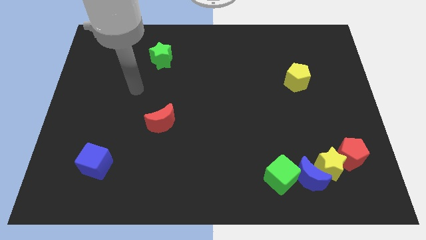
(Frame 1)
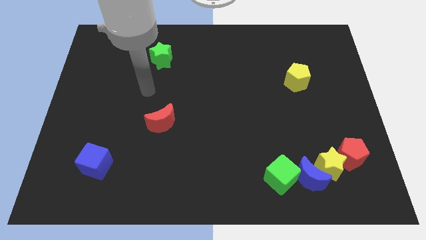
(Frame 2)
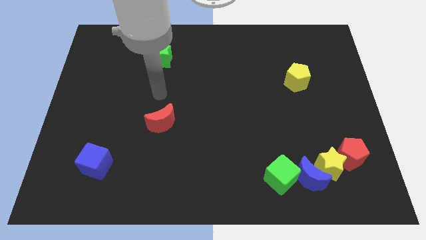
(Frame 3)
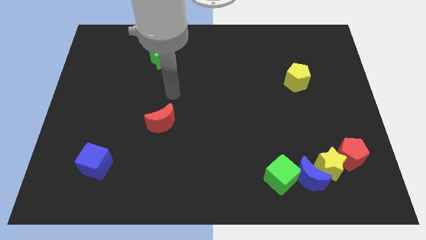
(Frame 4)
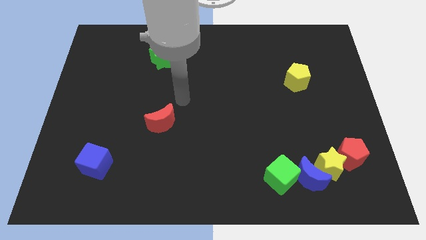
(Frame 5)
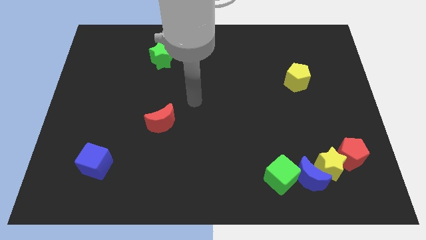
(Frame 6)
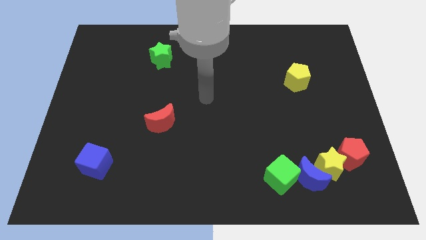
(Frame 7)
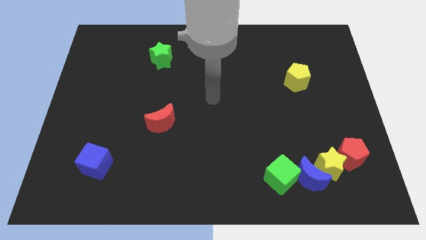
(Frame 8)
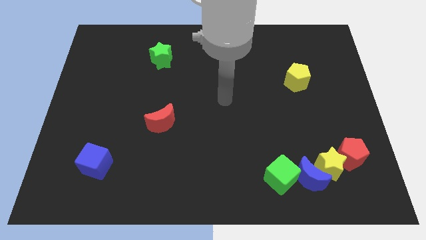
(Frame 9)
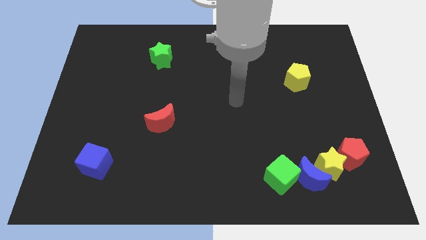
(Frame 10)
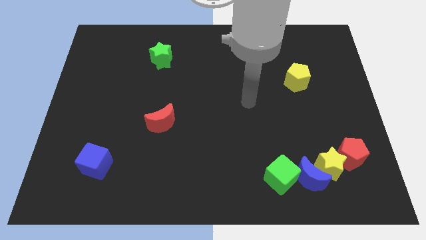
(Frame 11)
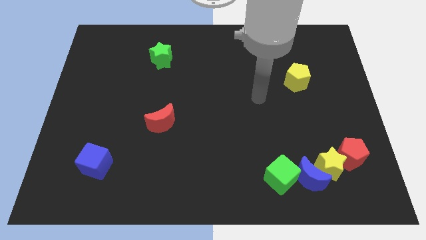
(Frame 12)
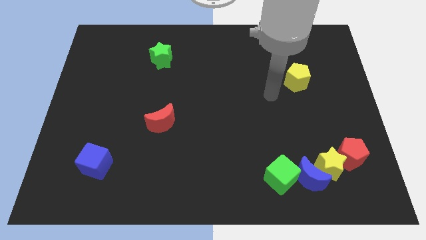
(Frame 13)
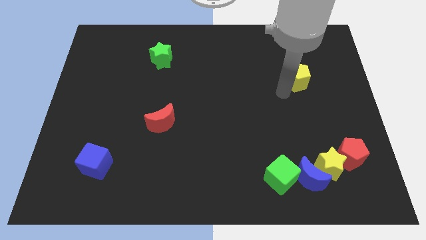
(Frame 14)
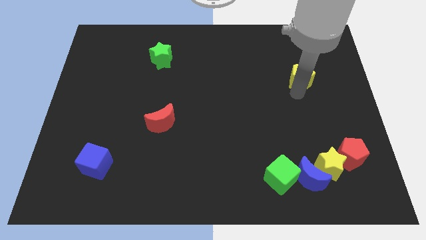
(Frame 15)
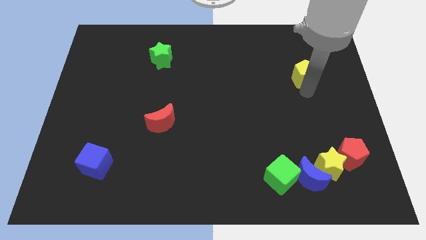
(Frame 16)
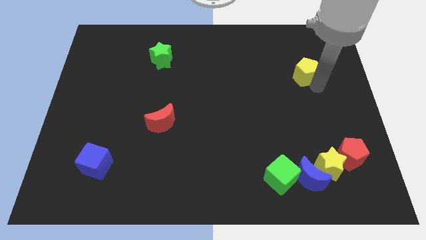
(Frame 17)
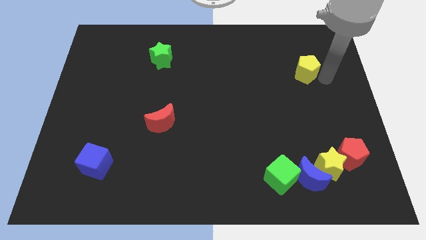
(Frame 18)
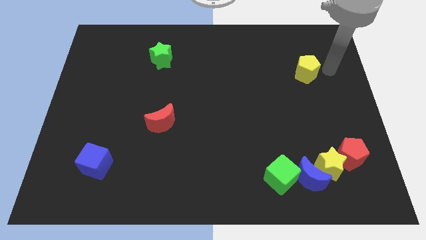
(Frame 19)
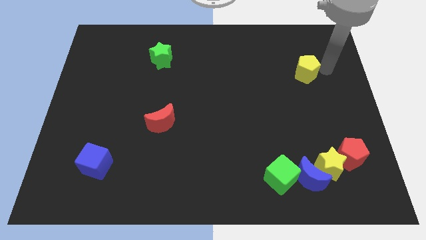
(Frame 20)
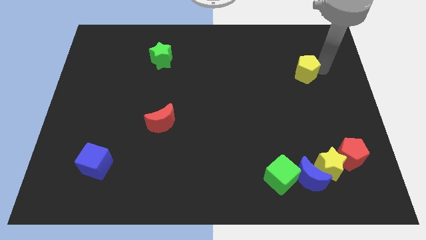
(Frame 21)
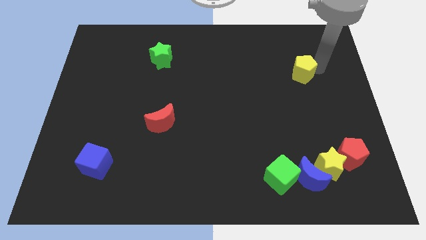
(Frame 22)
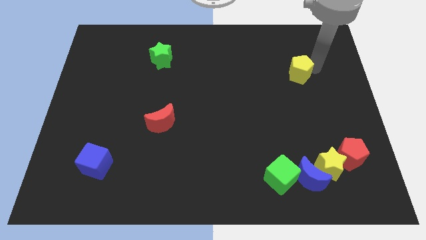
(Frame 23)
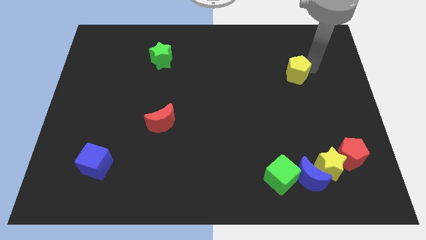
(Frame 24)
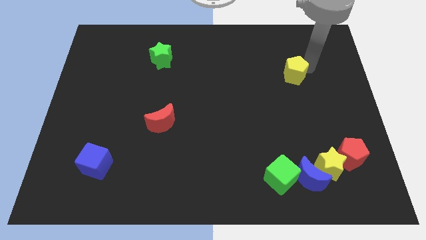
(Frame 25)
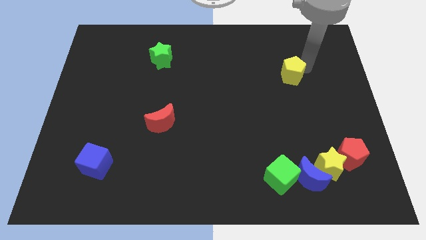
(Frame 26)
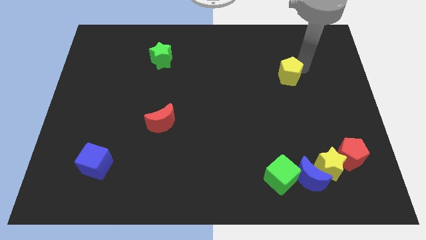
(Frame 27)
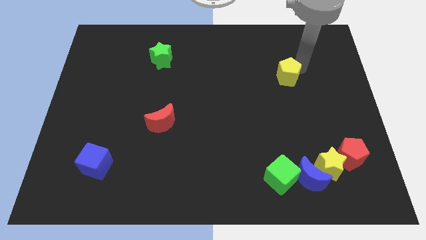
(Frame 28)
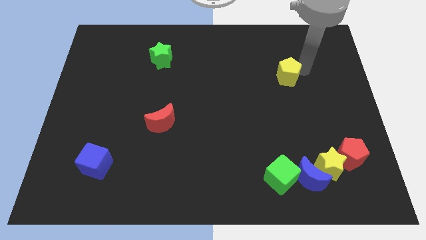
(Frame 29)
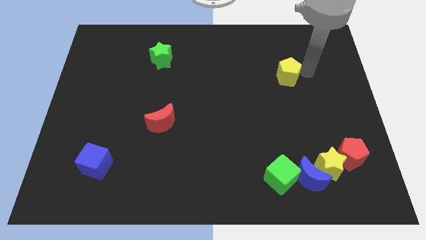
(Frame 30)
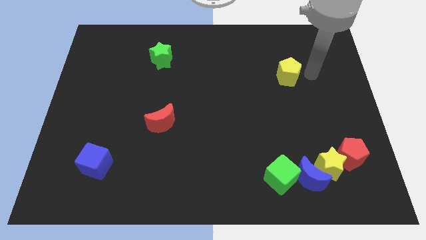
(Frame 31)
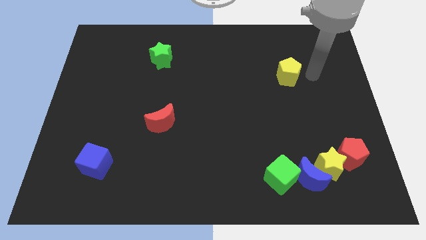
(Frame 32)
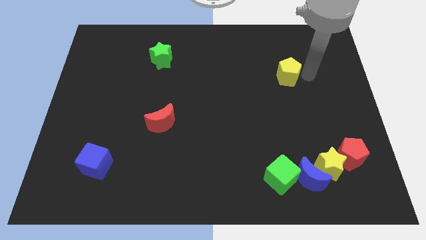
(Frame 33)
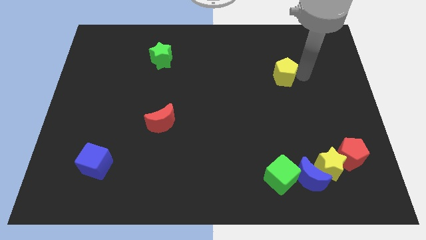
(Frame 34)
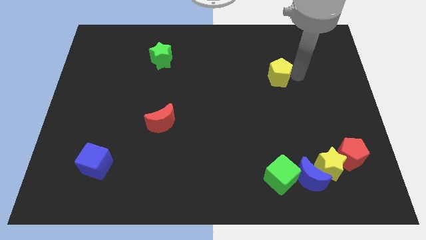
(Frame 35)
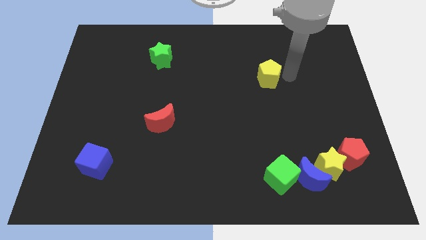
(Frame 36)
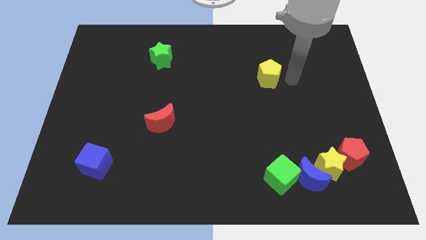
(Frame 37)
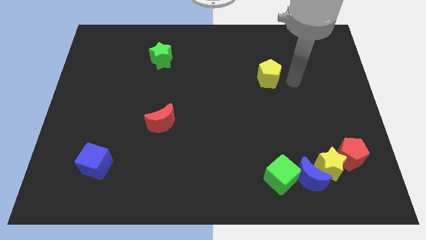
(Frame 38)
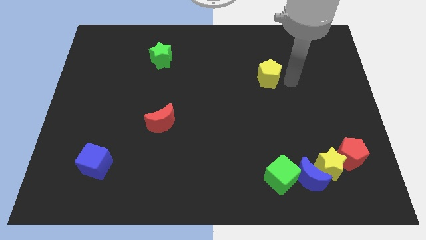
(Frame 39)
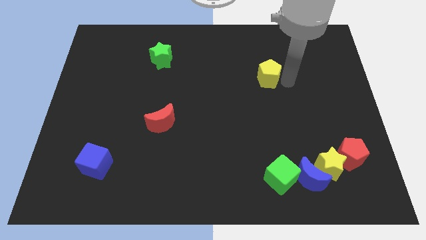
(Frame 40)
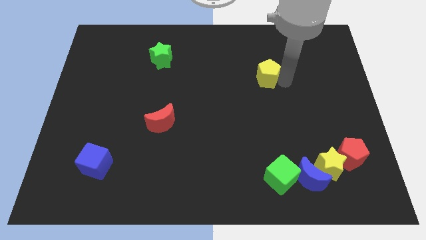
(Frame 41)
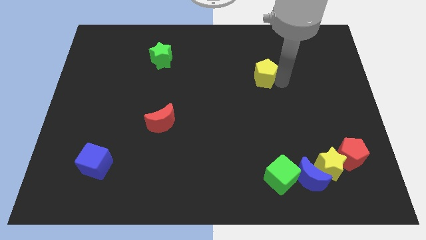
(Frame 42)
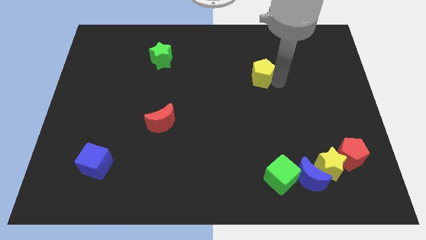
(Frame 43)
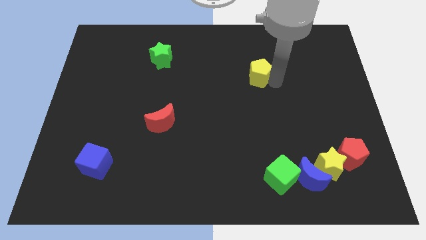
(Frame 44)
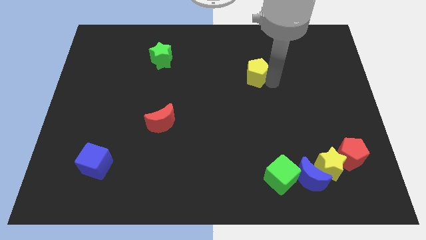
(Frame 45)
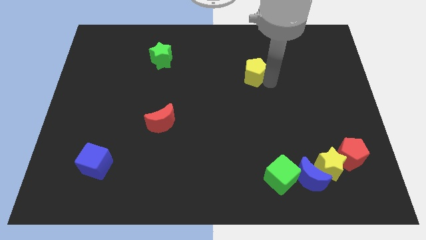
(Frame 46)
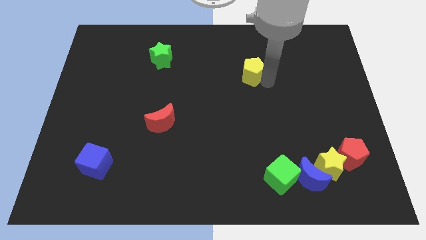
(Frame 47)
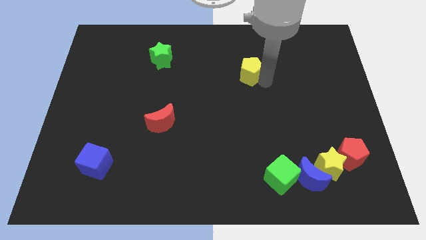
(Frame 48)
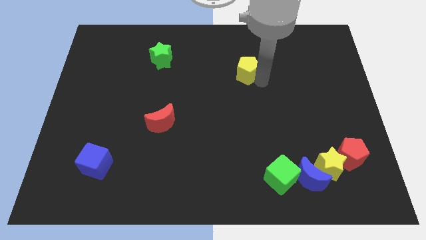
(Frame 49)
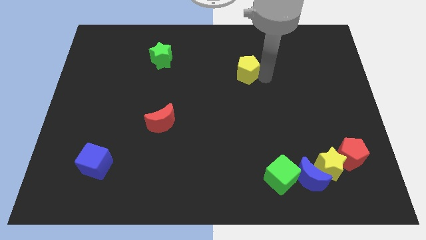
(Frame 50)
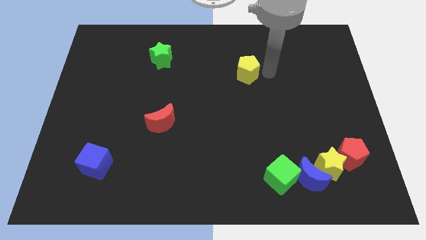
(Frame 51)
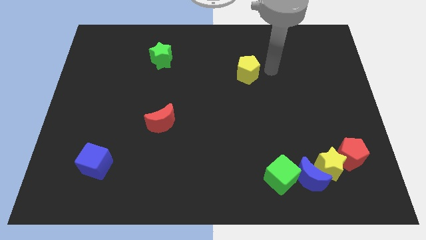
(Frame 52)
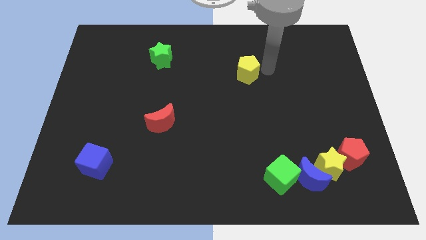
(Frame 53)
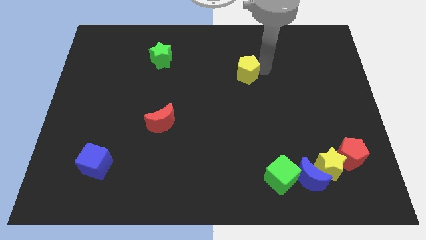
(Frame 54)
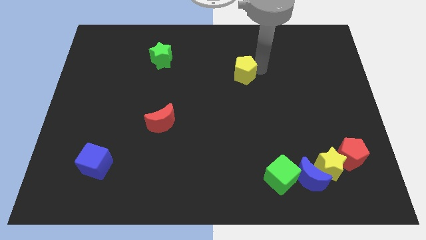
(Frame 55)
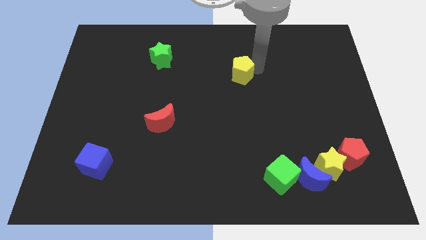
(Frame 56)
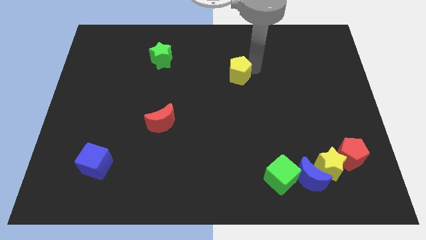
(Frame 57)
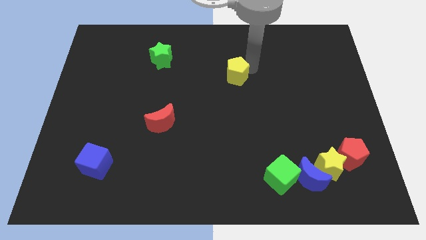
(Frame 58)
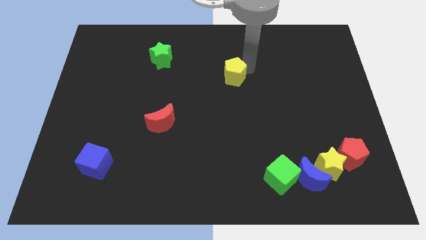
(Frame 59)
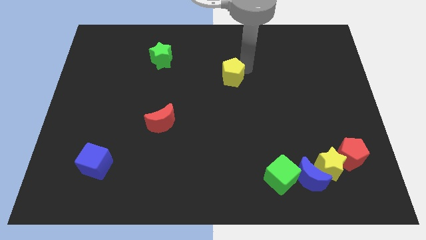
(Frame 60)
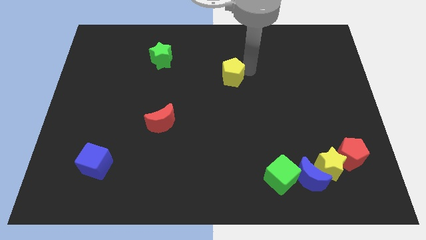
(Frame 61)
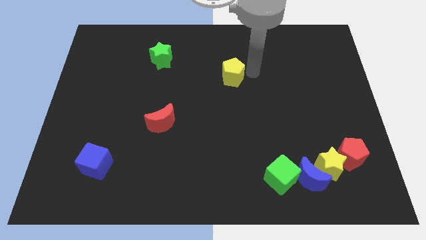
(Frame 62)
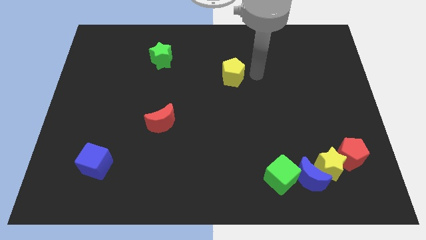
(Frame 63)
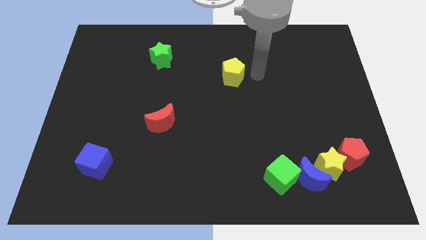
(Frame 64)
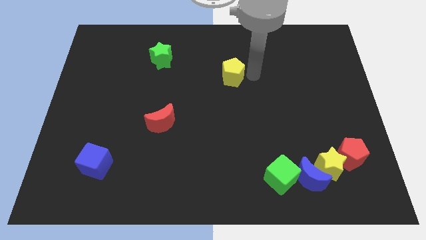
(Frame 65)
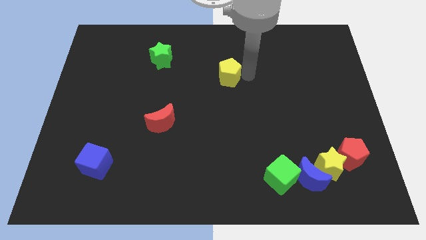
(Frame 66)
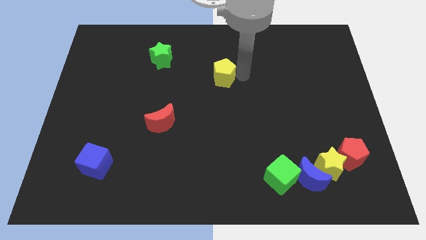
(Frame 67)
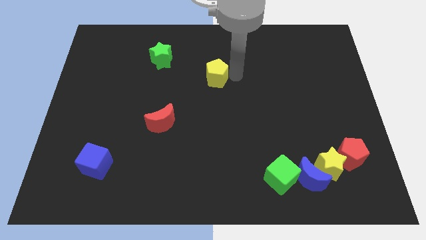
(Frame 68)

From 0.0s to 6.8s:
move the yellow pentagon left

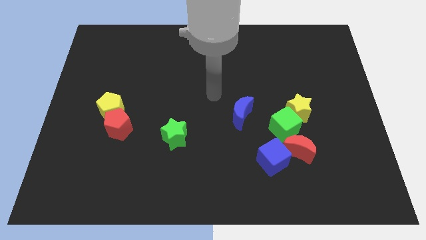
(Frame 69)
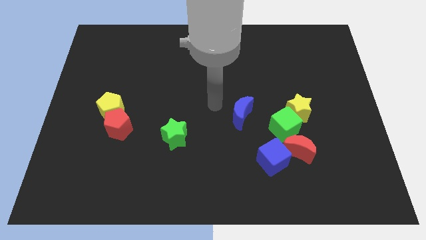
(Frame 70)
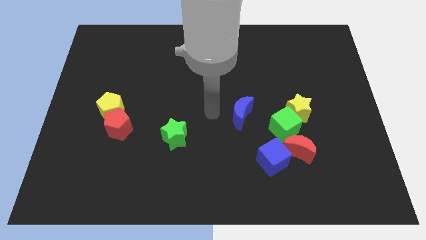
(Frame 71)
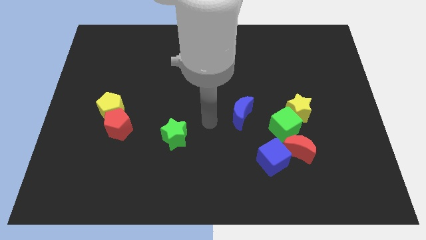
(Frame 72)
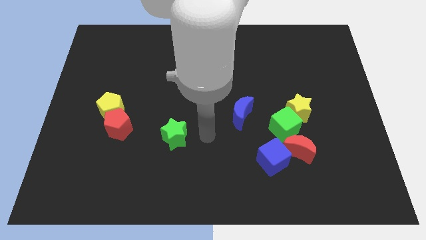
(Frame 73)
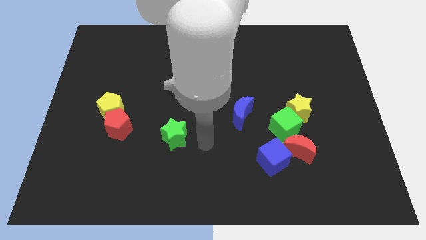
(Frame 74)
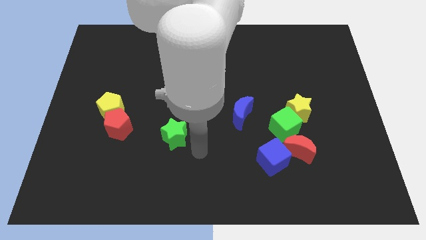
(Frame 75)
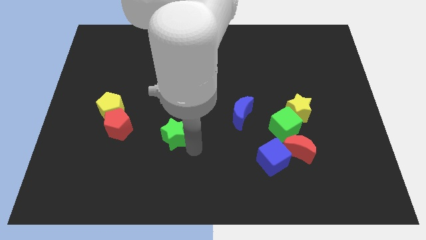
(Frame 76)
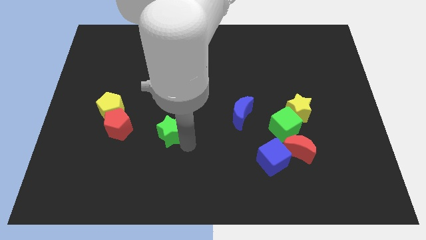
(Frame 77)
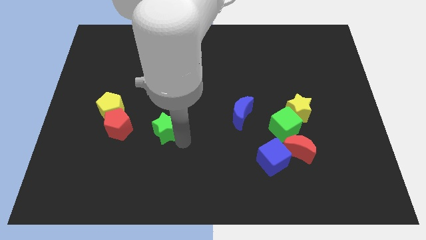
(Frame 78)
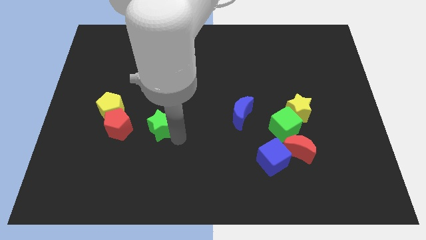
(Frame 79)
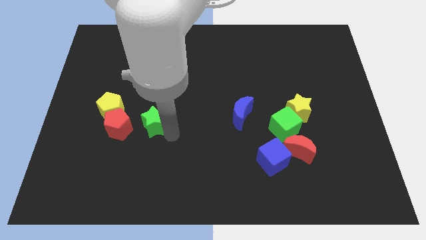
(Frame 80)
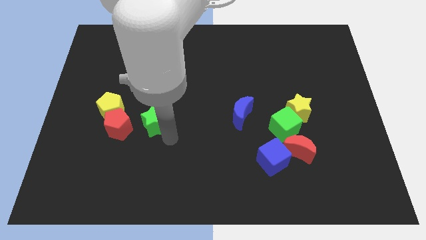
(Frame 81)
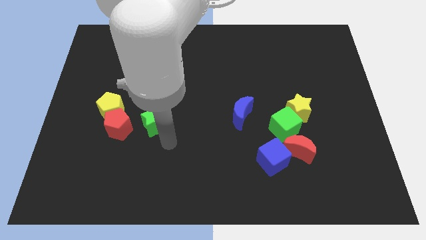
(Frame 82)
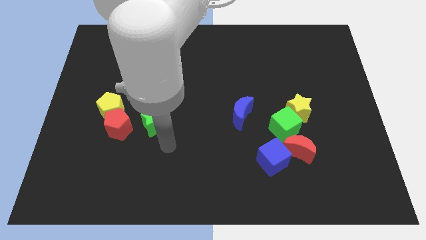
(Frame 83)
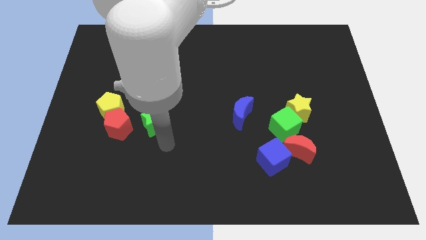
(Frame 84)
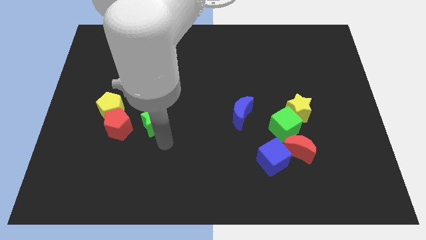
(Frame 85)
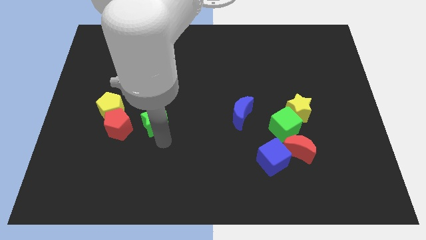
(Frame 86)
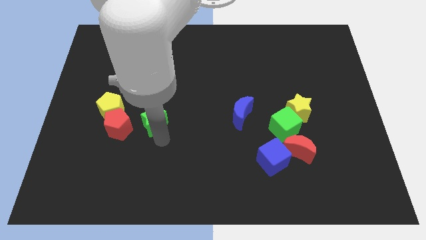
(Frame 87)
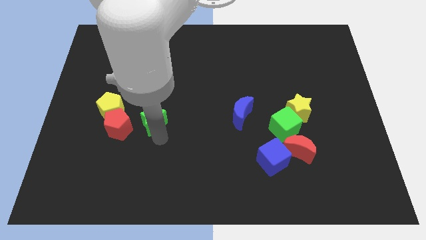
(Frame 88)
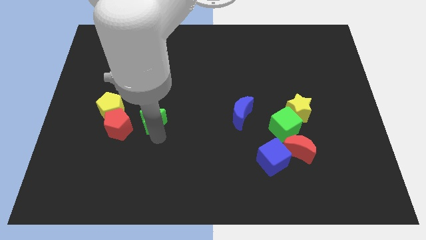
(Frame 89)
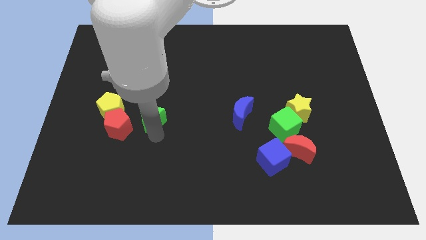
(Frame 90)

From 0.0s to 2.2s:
push the green star a bit up and to the left diagonally
